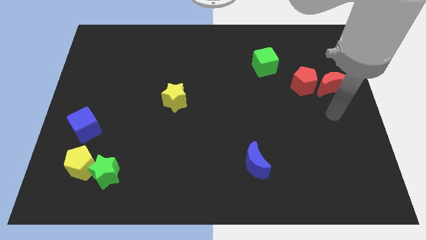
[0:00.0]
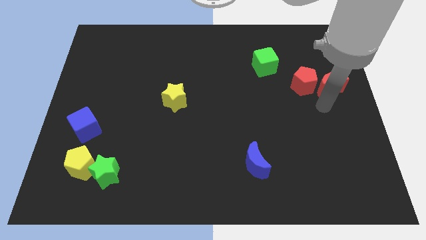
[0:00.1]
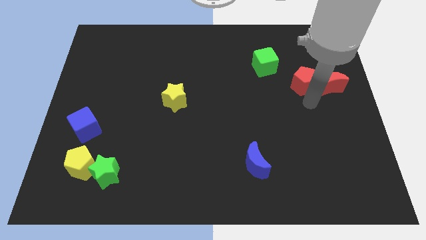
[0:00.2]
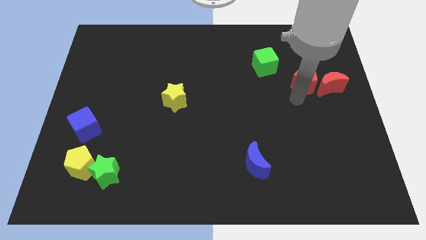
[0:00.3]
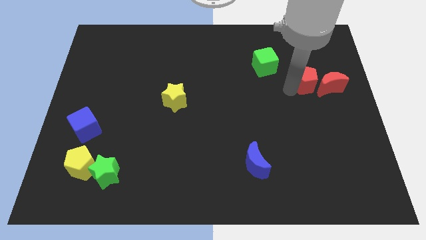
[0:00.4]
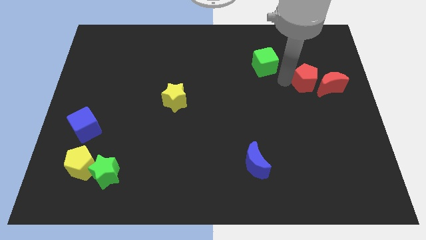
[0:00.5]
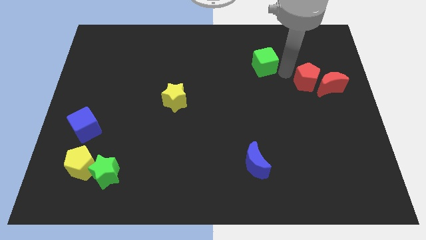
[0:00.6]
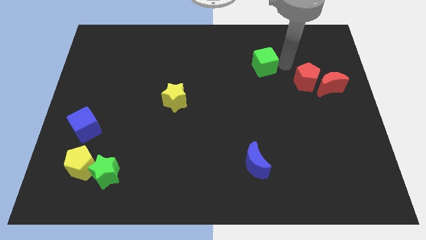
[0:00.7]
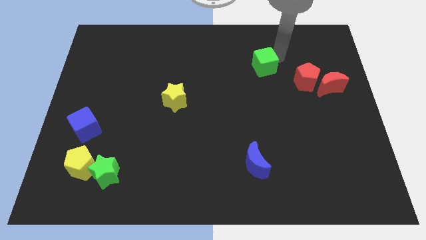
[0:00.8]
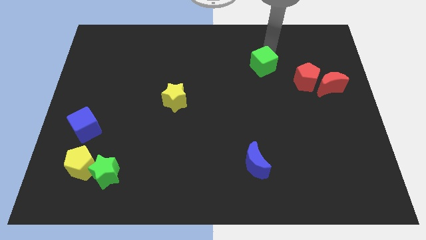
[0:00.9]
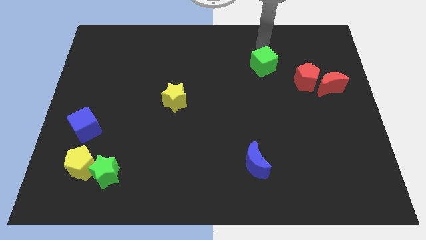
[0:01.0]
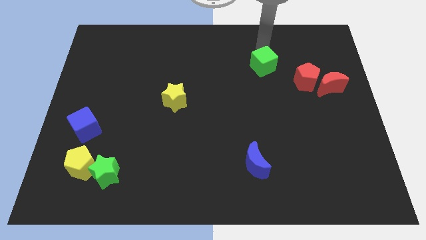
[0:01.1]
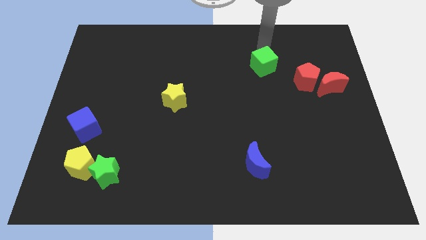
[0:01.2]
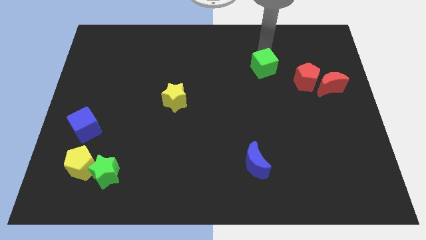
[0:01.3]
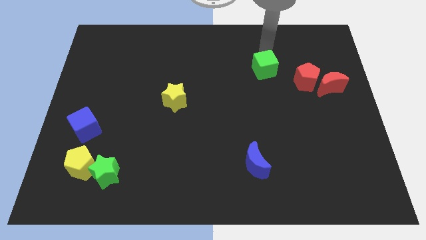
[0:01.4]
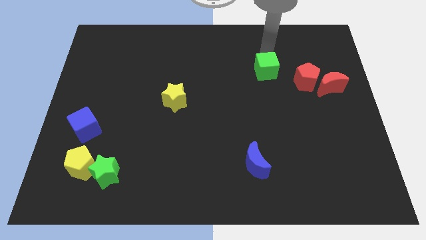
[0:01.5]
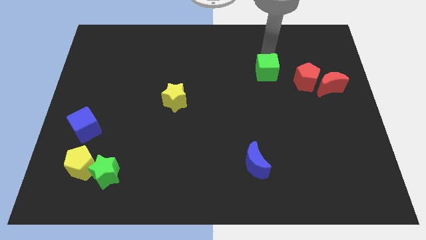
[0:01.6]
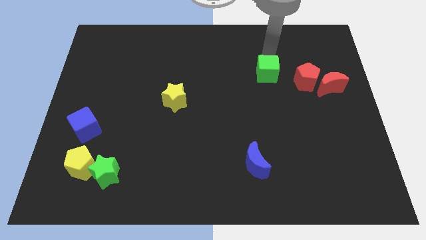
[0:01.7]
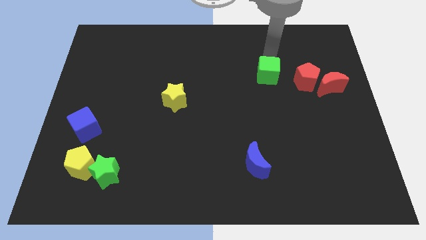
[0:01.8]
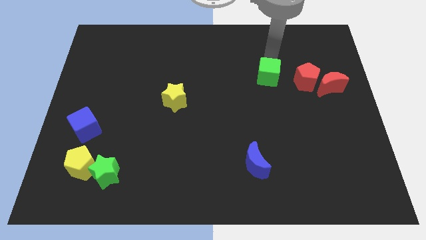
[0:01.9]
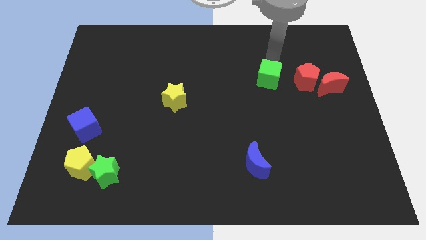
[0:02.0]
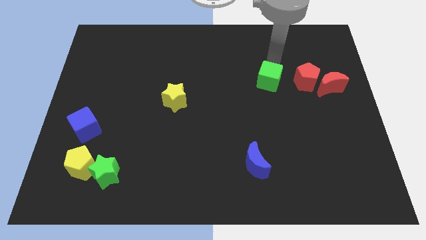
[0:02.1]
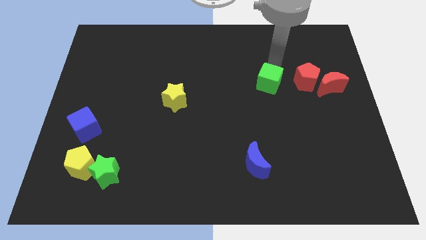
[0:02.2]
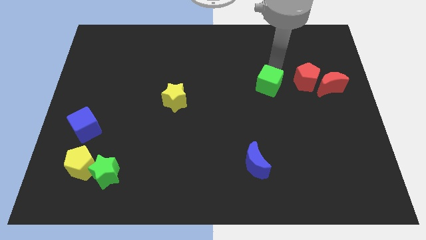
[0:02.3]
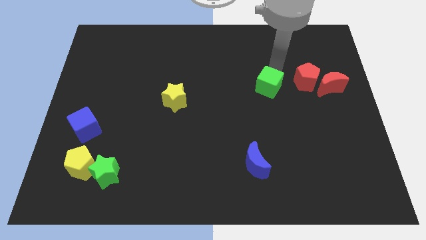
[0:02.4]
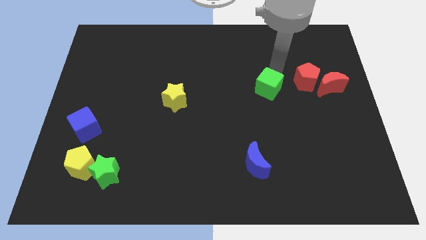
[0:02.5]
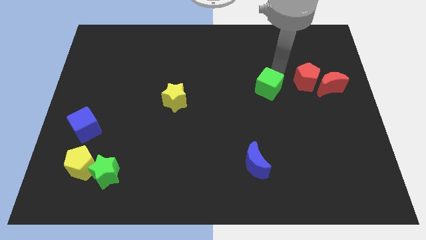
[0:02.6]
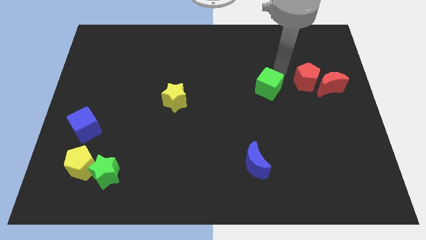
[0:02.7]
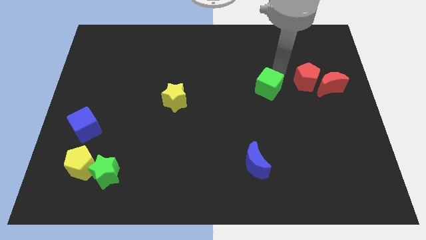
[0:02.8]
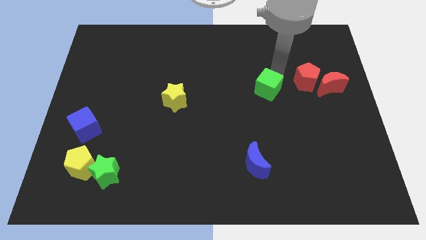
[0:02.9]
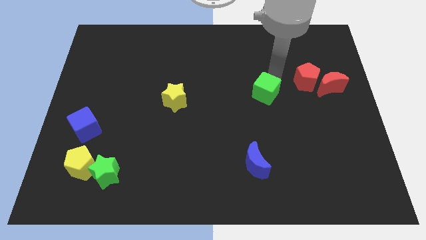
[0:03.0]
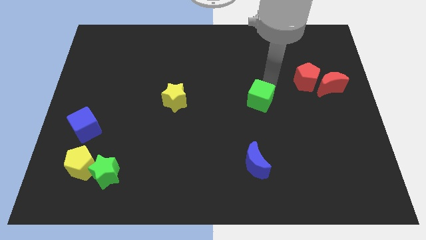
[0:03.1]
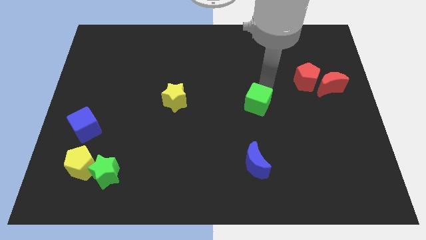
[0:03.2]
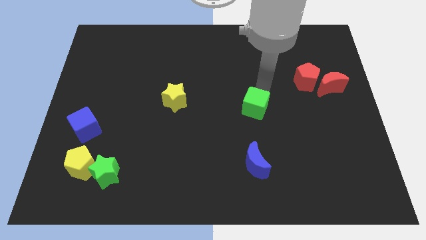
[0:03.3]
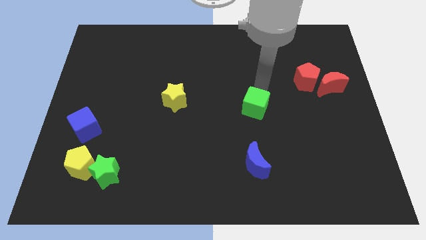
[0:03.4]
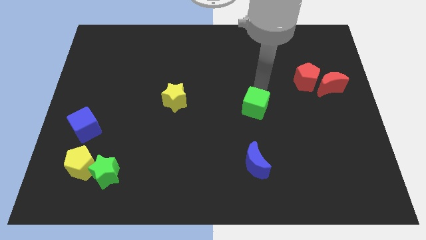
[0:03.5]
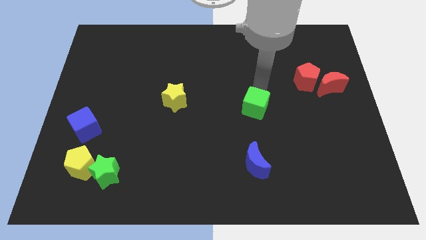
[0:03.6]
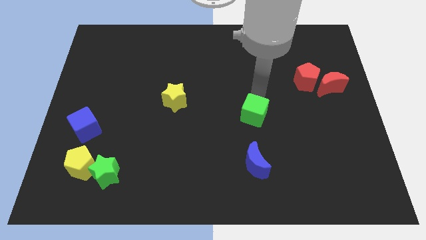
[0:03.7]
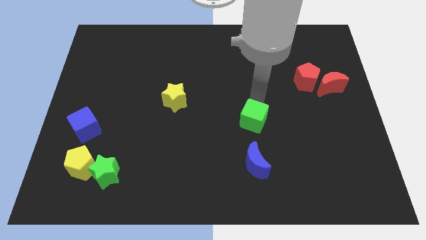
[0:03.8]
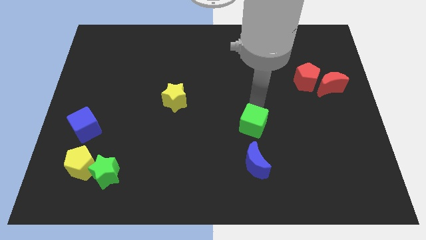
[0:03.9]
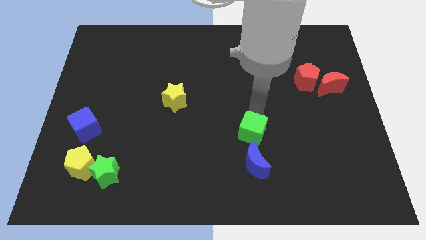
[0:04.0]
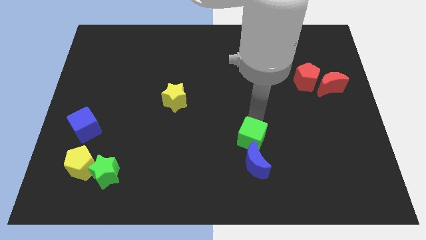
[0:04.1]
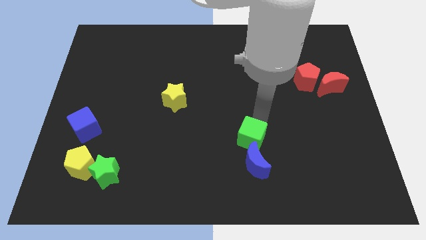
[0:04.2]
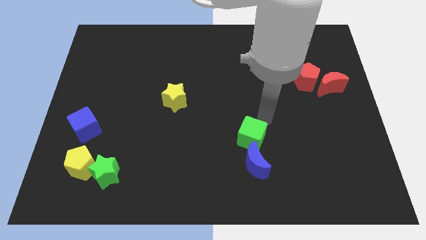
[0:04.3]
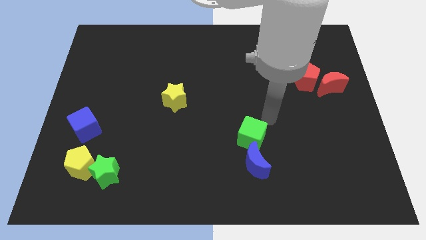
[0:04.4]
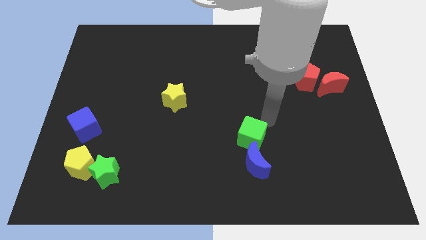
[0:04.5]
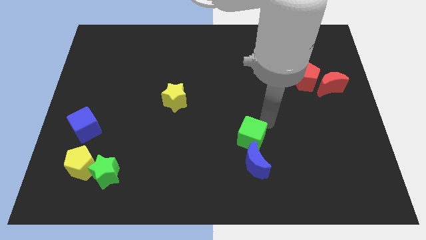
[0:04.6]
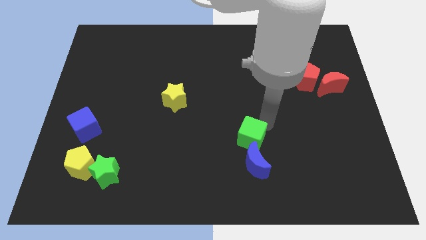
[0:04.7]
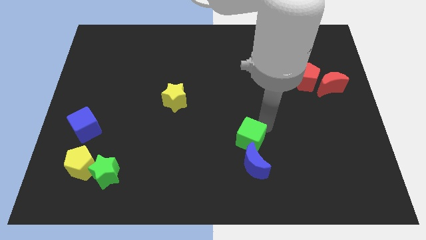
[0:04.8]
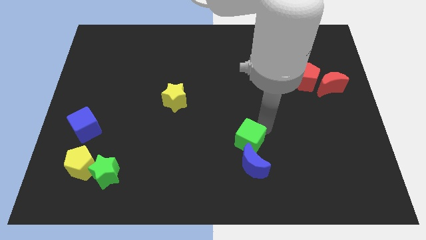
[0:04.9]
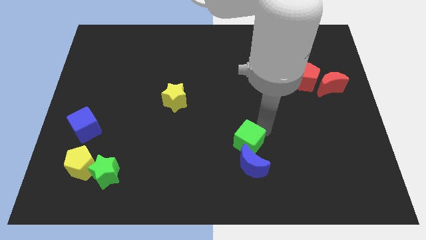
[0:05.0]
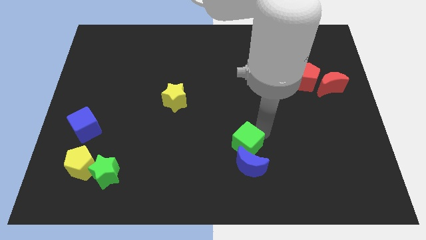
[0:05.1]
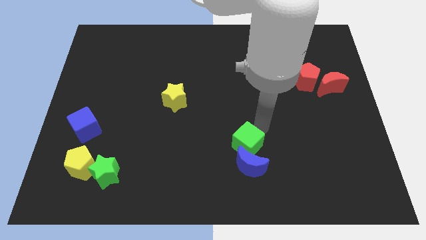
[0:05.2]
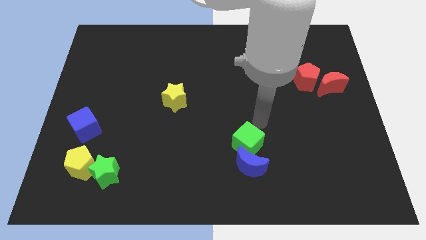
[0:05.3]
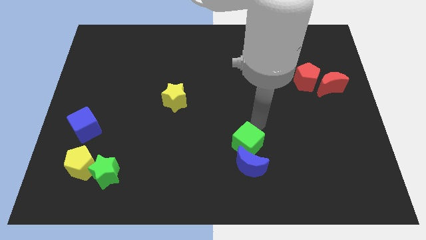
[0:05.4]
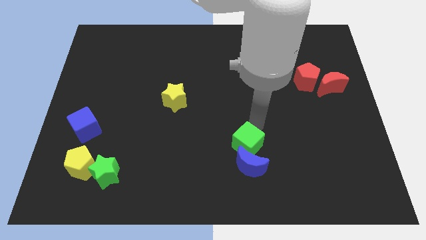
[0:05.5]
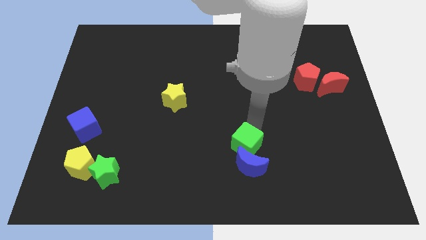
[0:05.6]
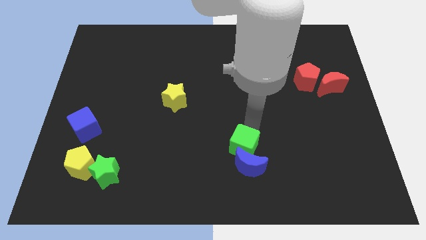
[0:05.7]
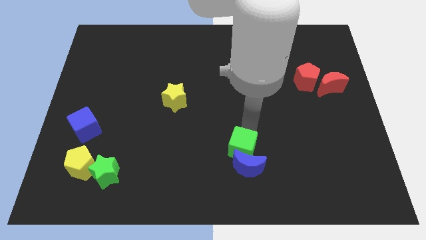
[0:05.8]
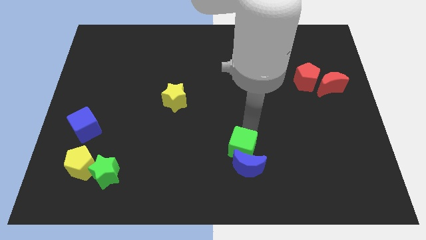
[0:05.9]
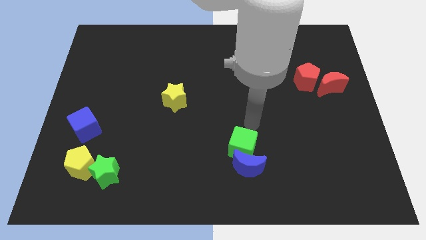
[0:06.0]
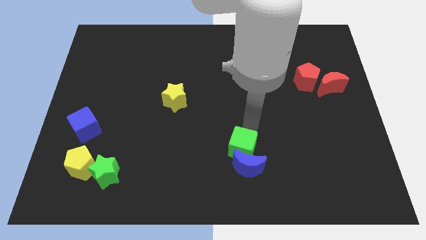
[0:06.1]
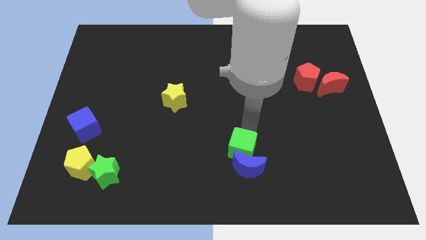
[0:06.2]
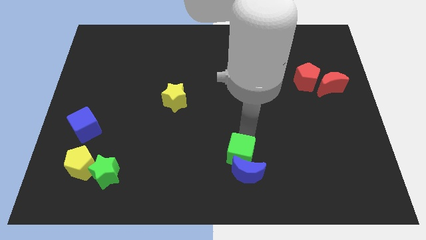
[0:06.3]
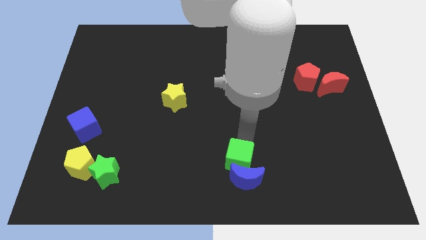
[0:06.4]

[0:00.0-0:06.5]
push the green cube to the bottom
